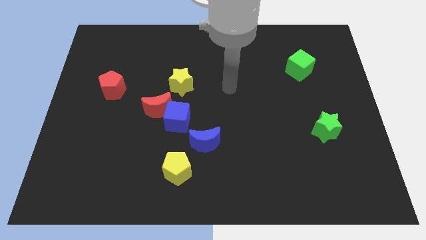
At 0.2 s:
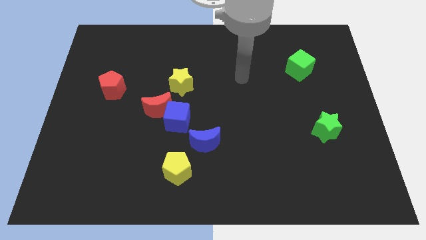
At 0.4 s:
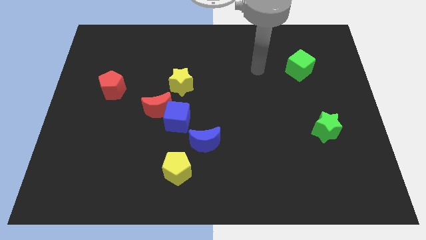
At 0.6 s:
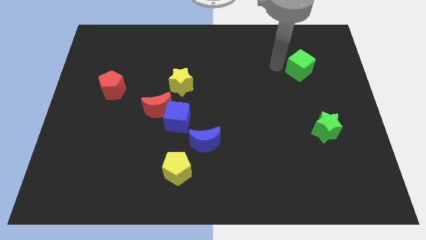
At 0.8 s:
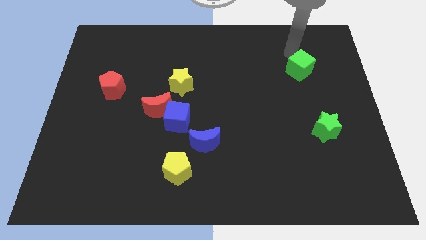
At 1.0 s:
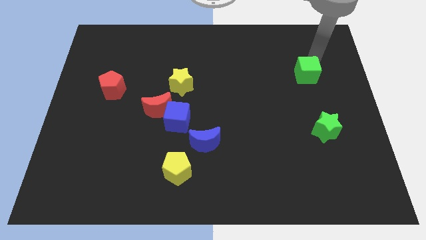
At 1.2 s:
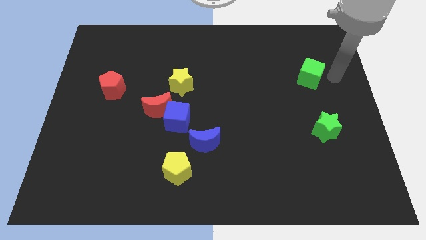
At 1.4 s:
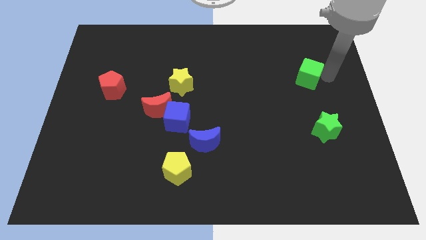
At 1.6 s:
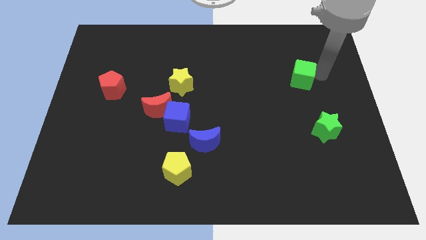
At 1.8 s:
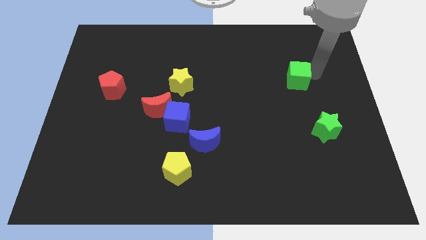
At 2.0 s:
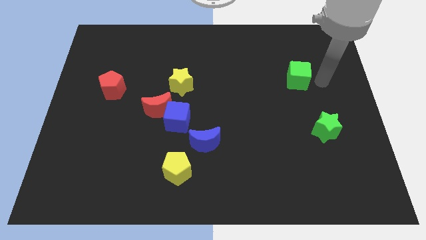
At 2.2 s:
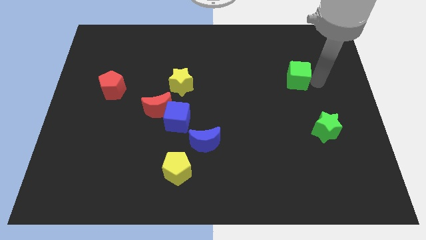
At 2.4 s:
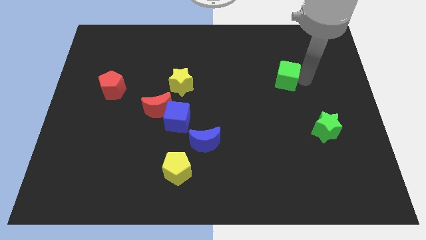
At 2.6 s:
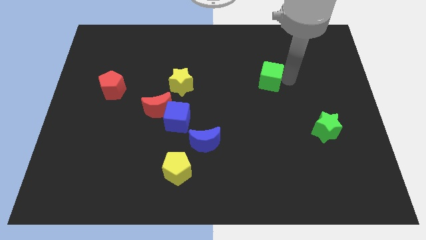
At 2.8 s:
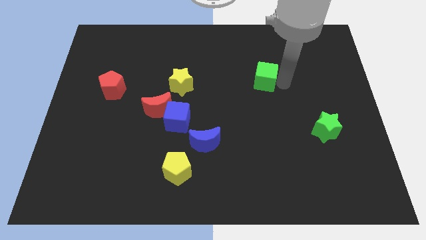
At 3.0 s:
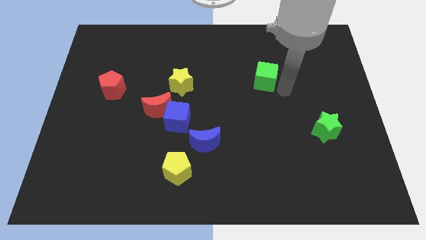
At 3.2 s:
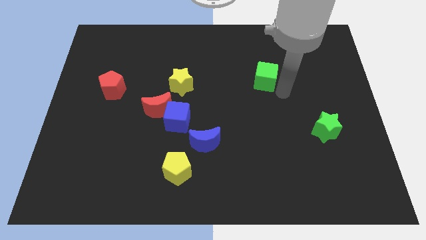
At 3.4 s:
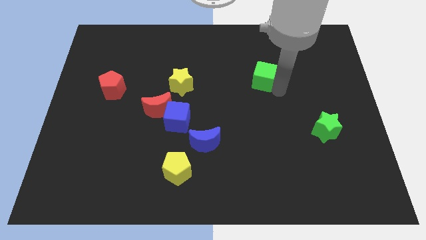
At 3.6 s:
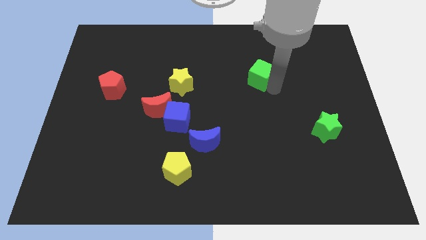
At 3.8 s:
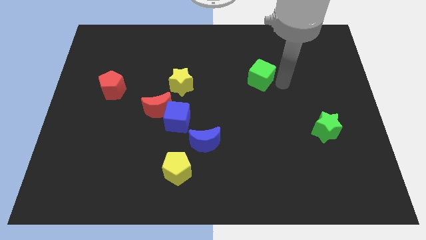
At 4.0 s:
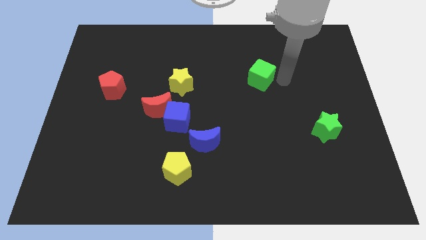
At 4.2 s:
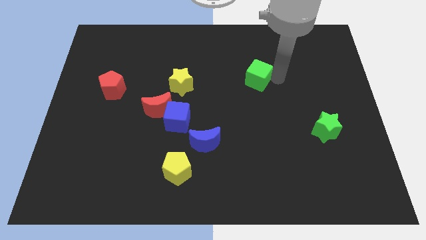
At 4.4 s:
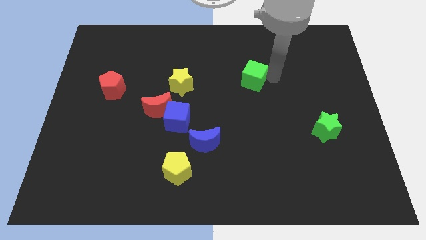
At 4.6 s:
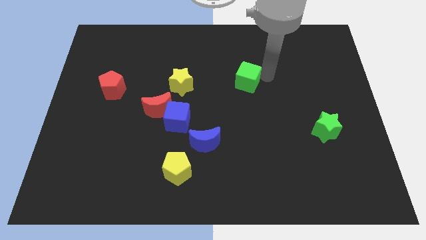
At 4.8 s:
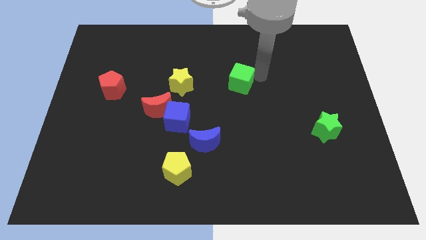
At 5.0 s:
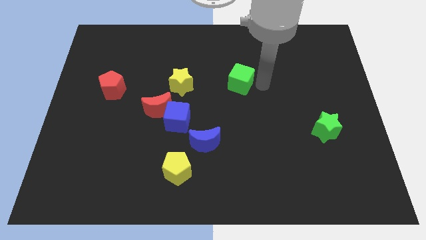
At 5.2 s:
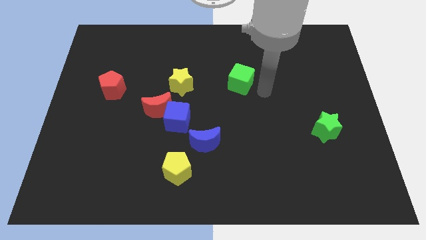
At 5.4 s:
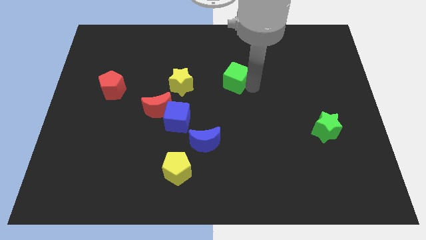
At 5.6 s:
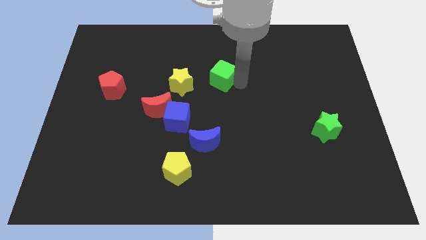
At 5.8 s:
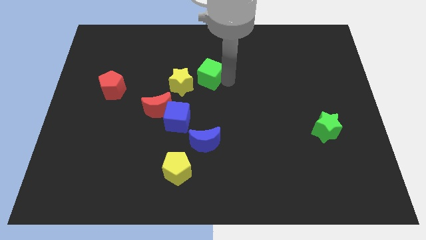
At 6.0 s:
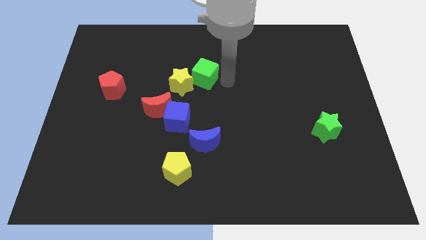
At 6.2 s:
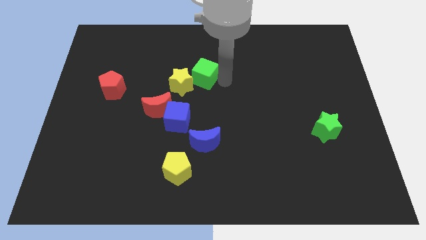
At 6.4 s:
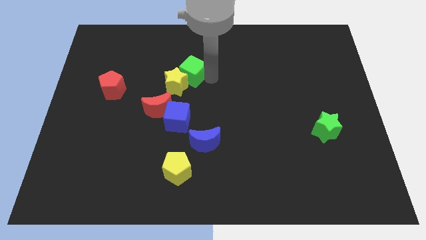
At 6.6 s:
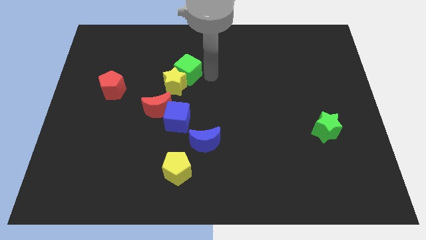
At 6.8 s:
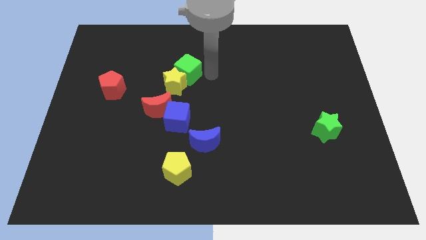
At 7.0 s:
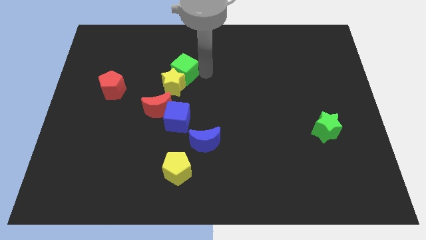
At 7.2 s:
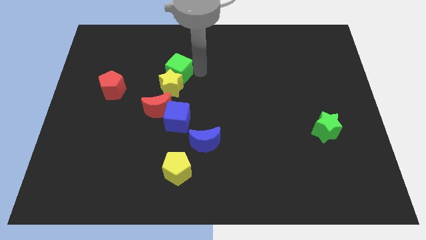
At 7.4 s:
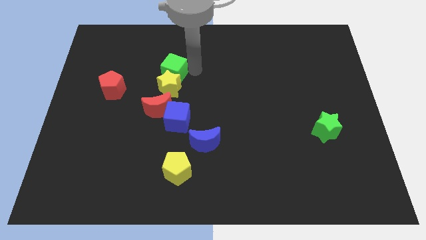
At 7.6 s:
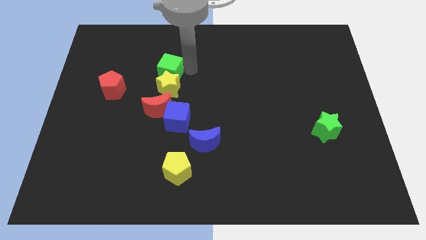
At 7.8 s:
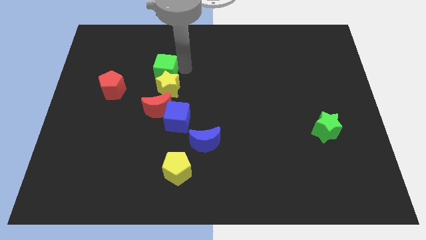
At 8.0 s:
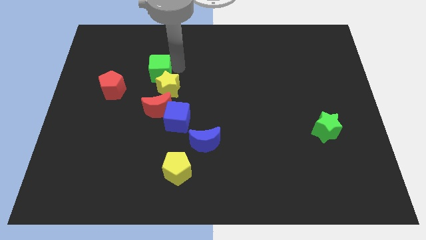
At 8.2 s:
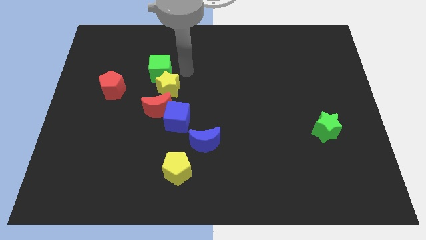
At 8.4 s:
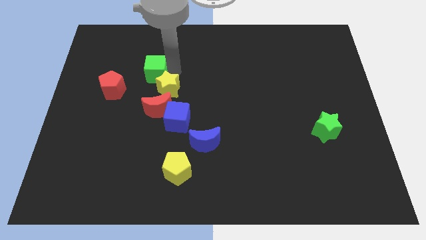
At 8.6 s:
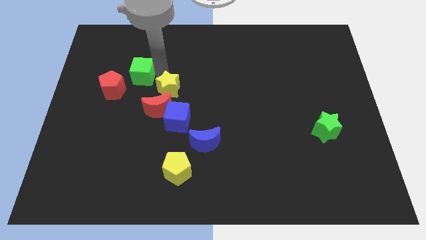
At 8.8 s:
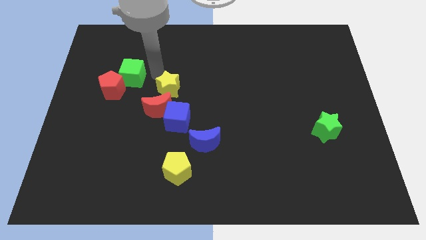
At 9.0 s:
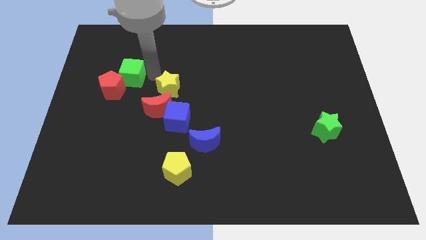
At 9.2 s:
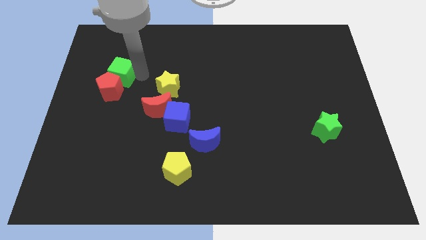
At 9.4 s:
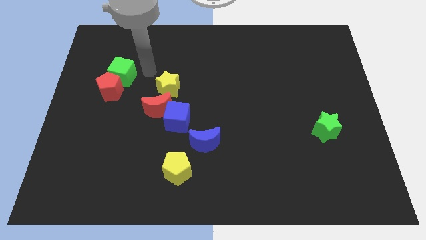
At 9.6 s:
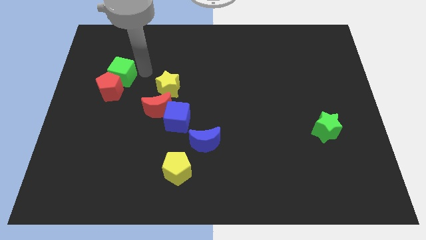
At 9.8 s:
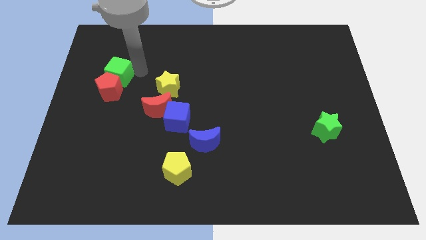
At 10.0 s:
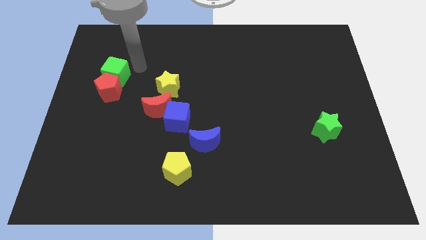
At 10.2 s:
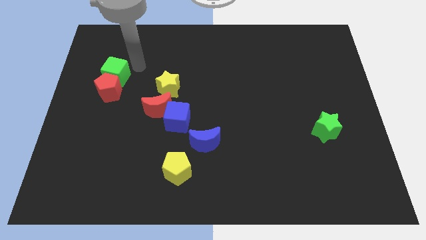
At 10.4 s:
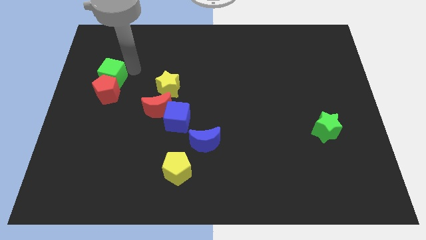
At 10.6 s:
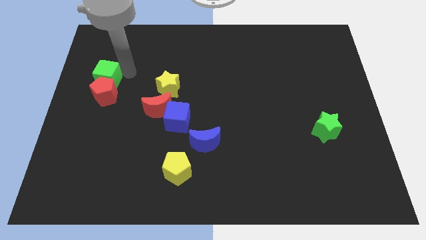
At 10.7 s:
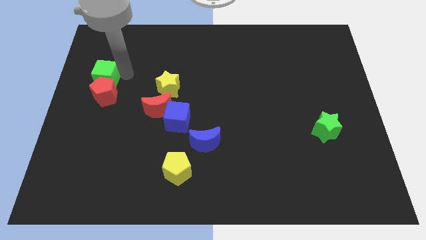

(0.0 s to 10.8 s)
move the green cube to the center left

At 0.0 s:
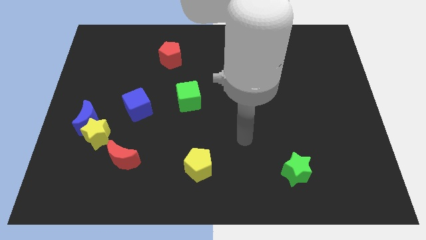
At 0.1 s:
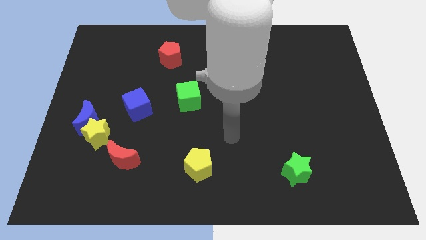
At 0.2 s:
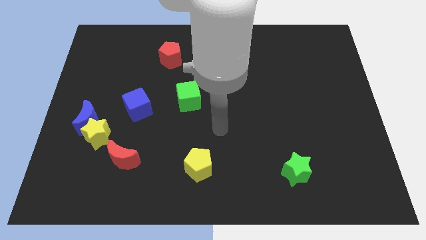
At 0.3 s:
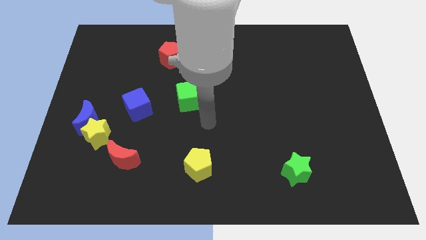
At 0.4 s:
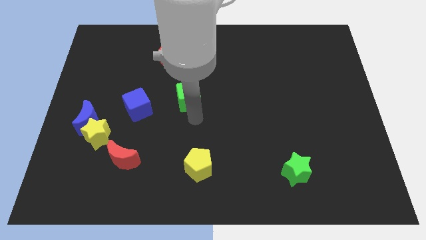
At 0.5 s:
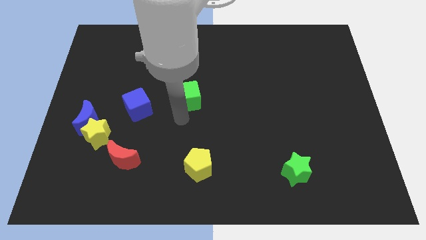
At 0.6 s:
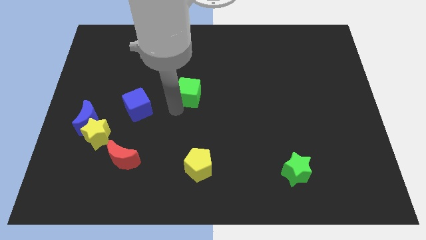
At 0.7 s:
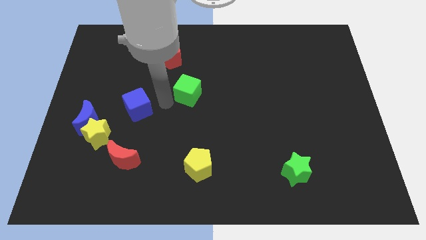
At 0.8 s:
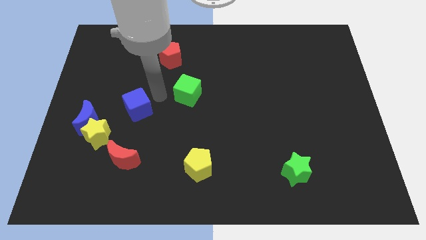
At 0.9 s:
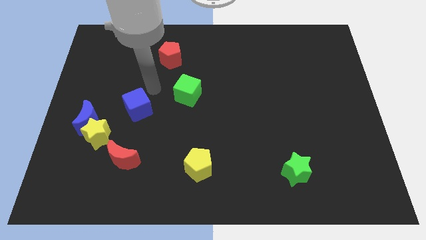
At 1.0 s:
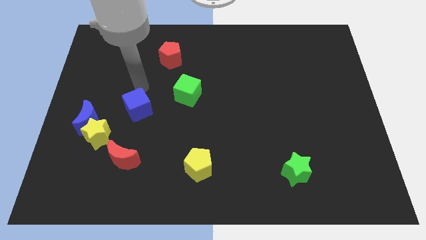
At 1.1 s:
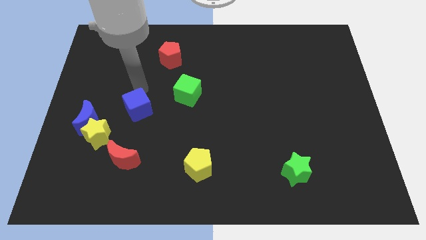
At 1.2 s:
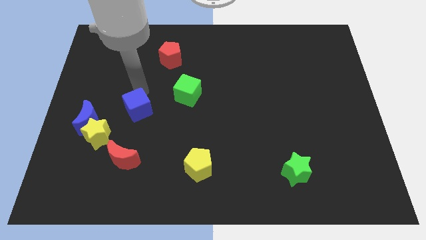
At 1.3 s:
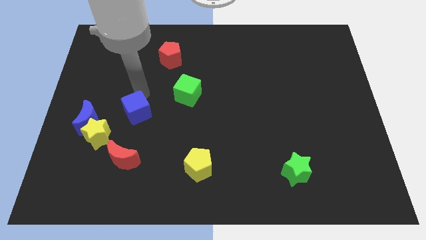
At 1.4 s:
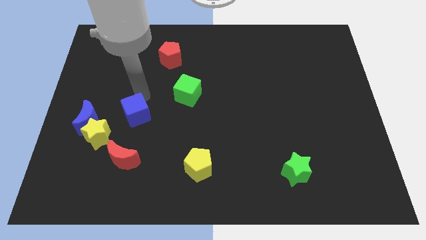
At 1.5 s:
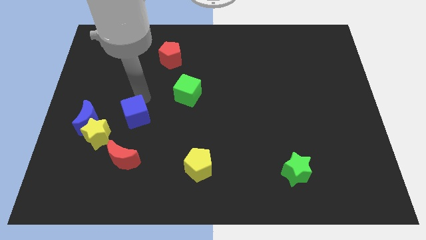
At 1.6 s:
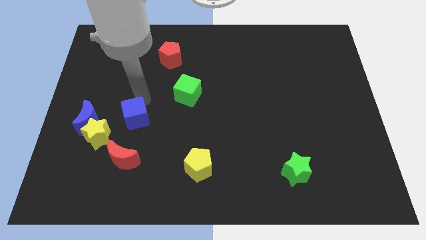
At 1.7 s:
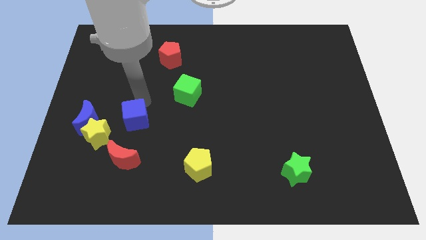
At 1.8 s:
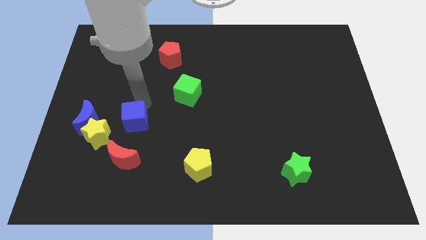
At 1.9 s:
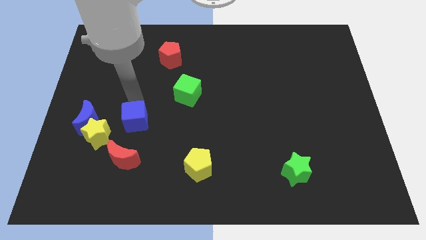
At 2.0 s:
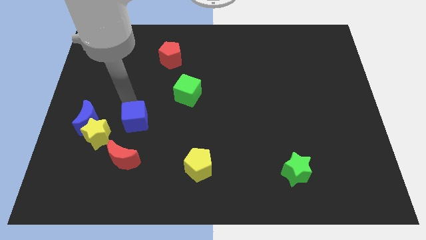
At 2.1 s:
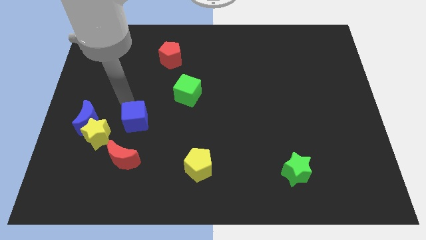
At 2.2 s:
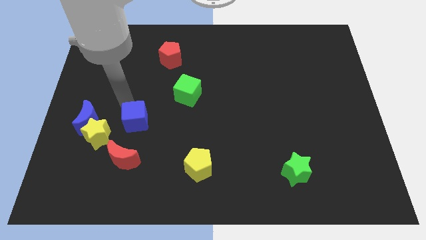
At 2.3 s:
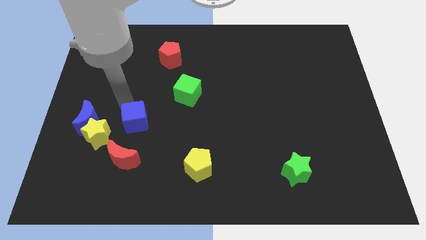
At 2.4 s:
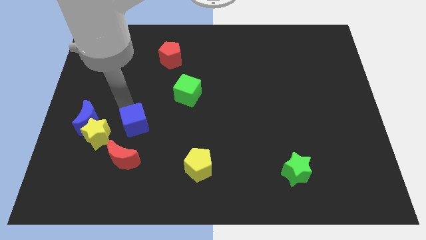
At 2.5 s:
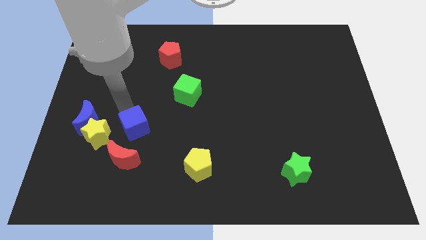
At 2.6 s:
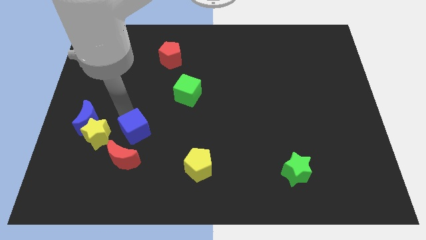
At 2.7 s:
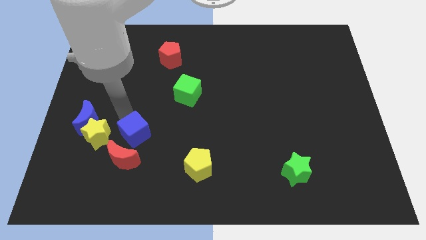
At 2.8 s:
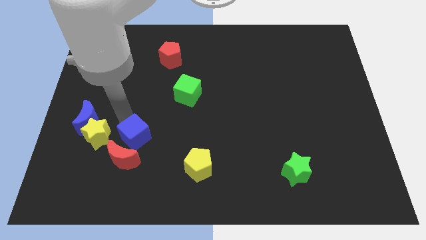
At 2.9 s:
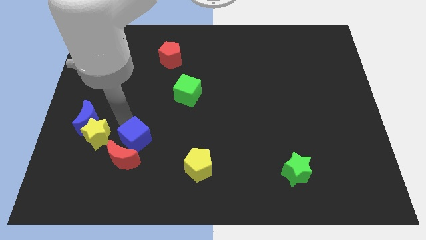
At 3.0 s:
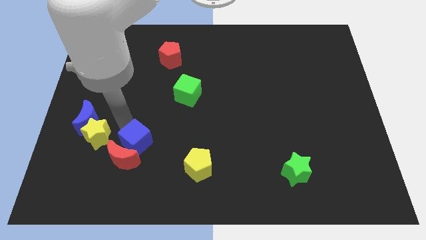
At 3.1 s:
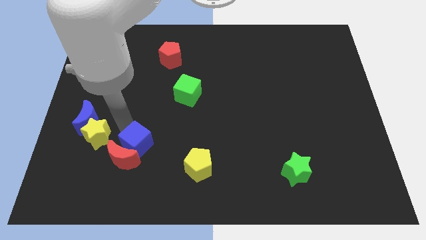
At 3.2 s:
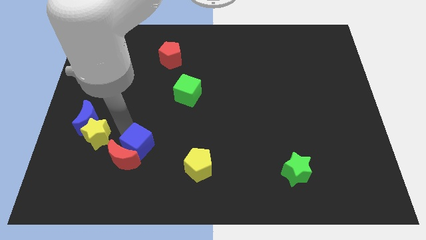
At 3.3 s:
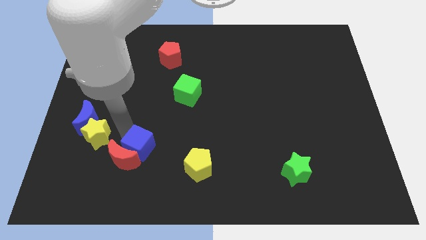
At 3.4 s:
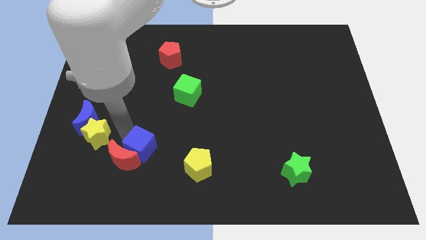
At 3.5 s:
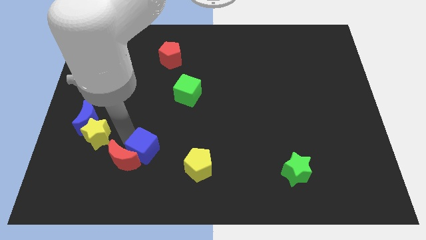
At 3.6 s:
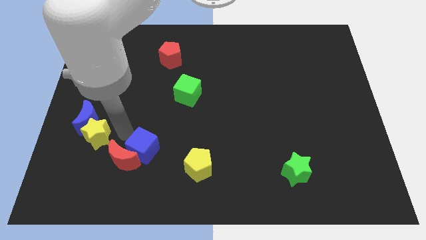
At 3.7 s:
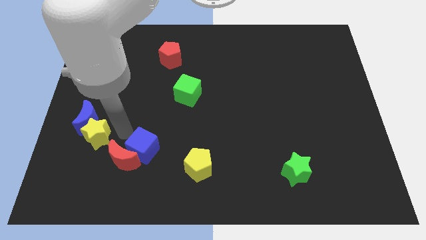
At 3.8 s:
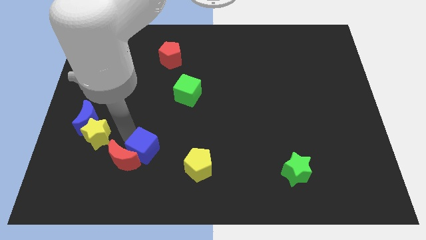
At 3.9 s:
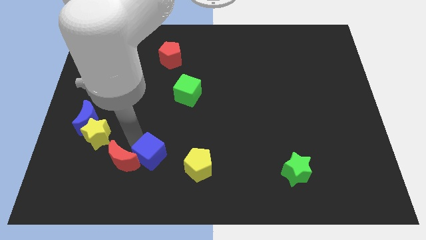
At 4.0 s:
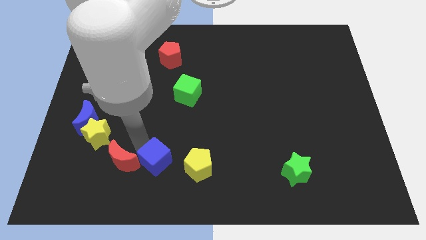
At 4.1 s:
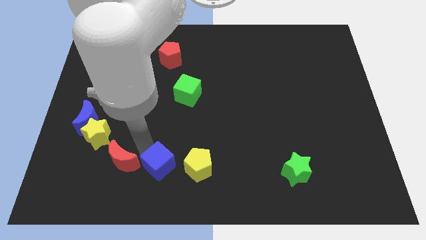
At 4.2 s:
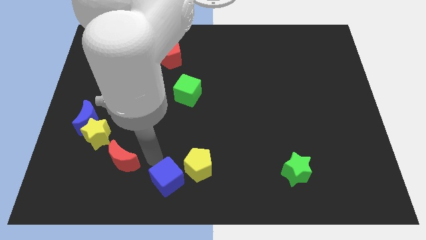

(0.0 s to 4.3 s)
put the blue cube to the bottom side
